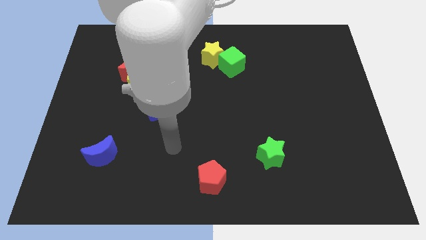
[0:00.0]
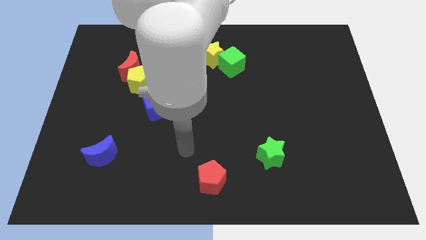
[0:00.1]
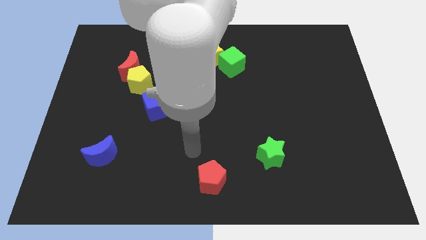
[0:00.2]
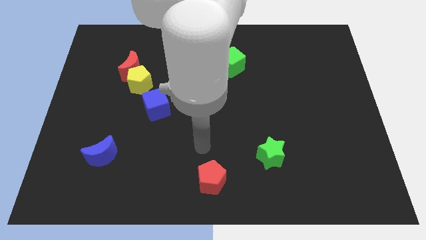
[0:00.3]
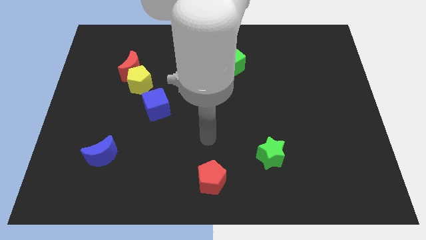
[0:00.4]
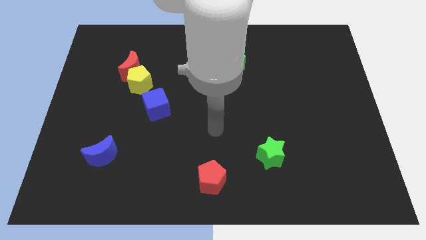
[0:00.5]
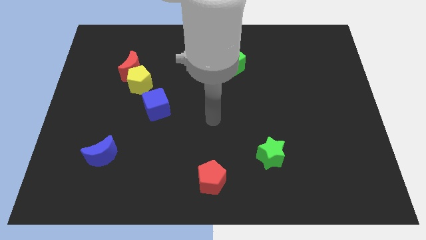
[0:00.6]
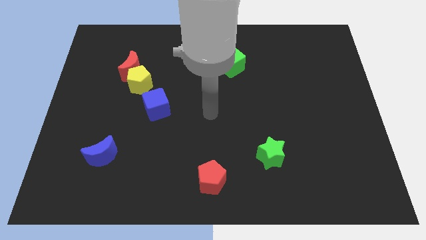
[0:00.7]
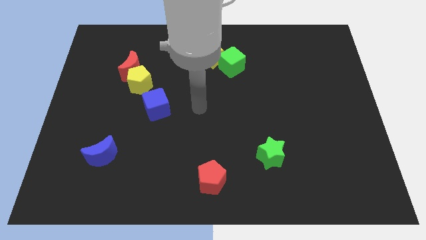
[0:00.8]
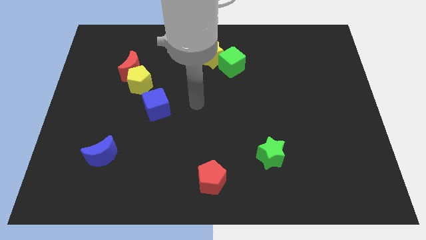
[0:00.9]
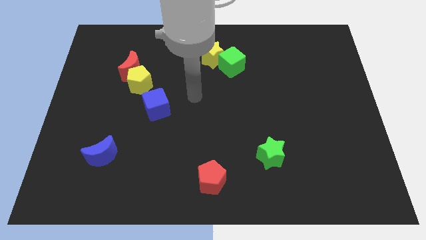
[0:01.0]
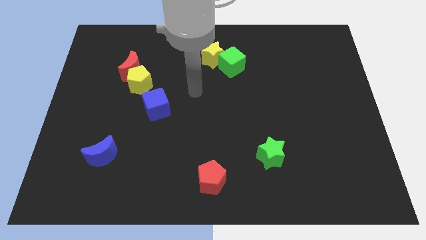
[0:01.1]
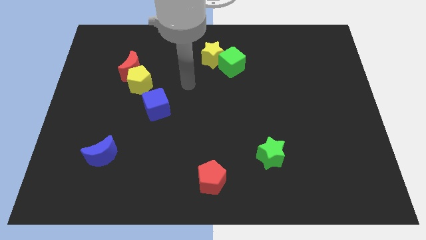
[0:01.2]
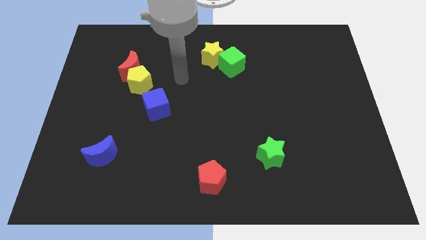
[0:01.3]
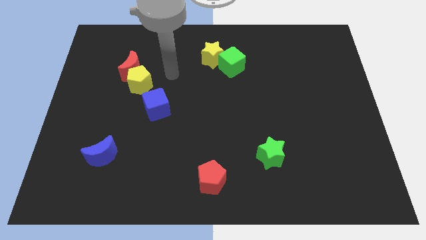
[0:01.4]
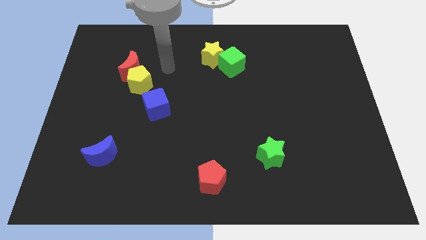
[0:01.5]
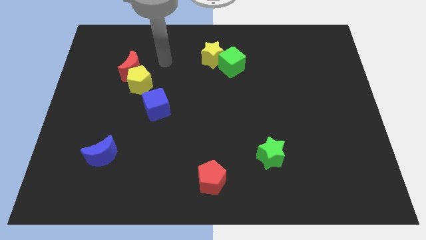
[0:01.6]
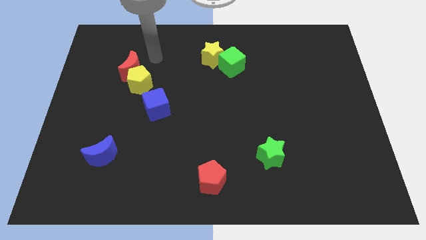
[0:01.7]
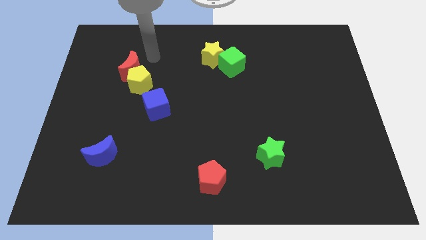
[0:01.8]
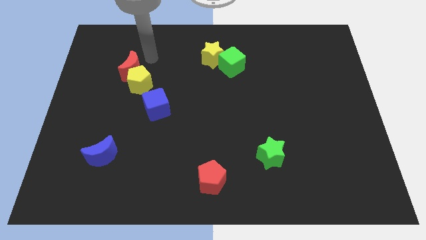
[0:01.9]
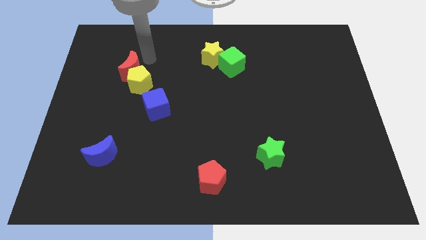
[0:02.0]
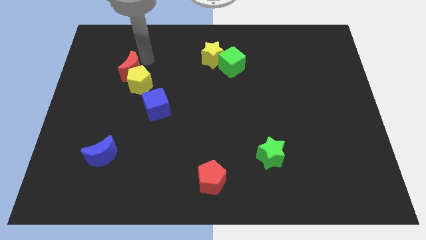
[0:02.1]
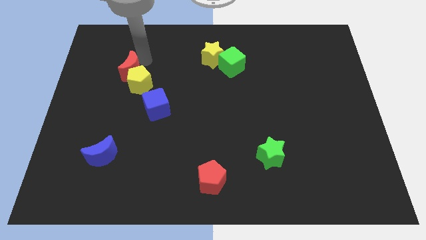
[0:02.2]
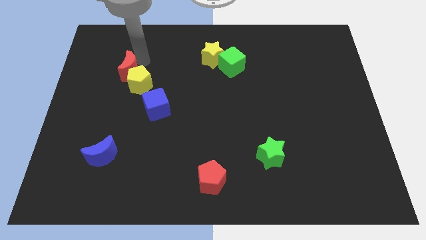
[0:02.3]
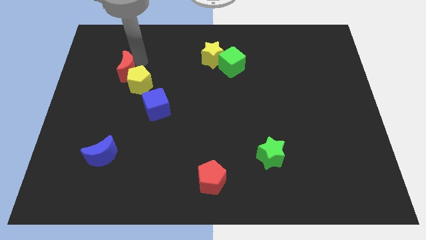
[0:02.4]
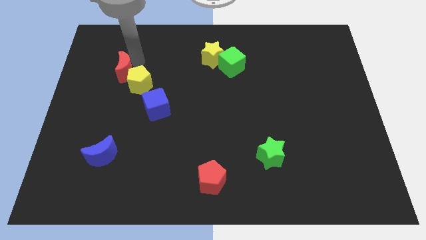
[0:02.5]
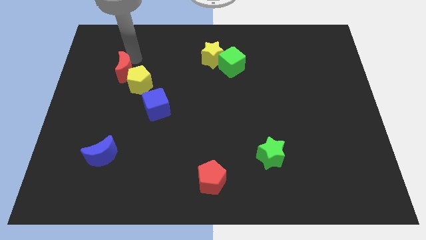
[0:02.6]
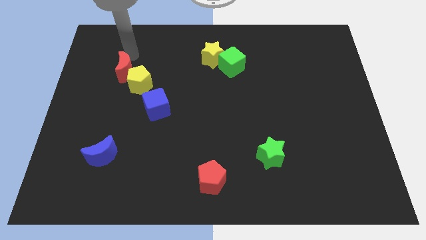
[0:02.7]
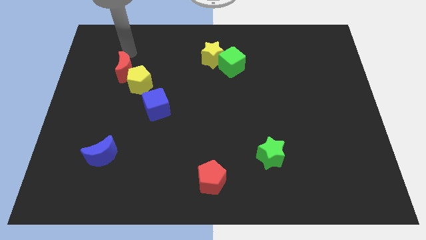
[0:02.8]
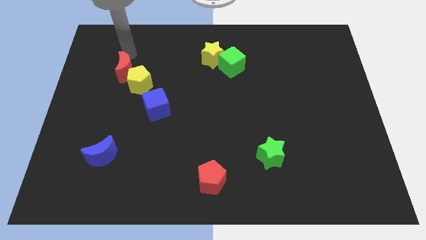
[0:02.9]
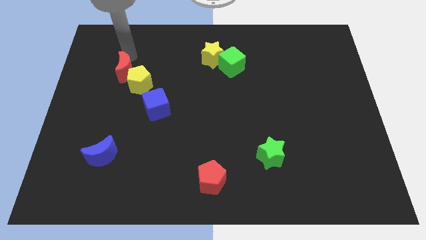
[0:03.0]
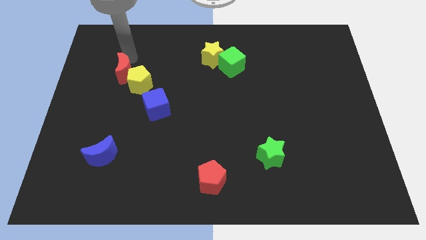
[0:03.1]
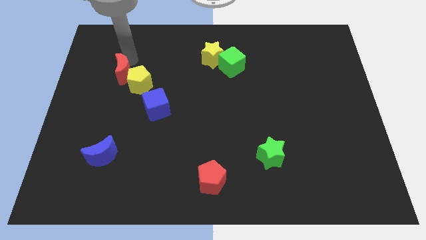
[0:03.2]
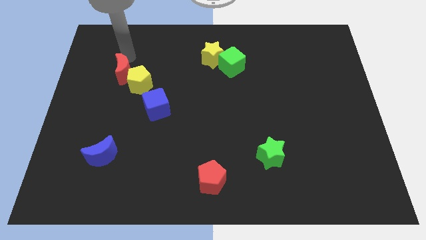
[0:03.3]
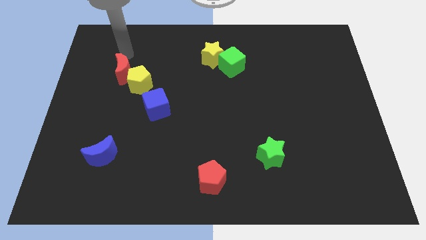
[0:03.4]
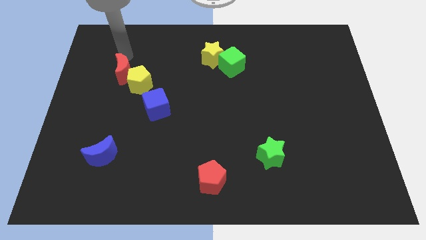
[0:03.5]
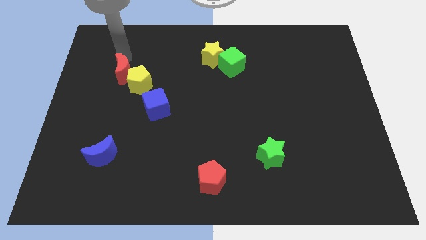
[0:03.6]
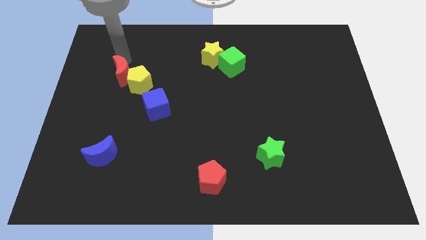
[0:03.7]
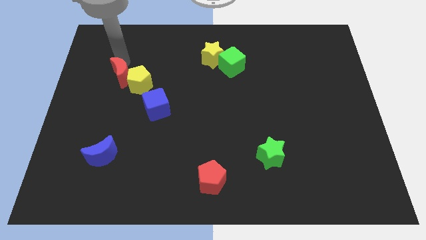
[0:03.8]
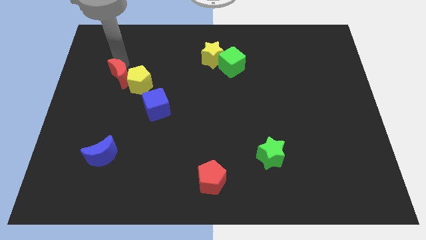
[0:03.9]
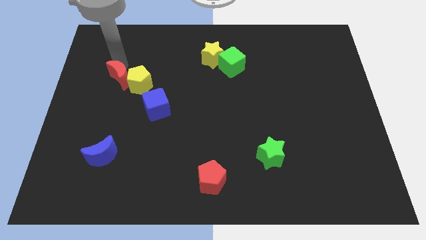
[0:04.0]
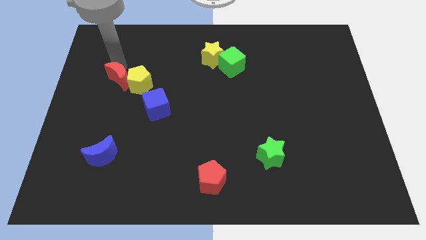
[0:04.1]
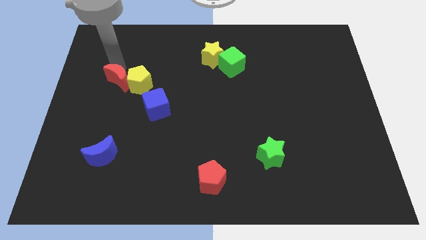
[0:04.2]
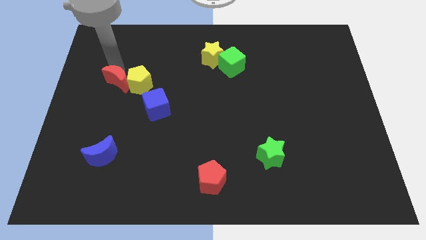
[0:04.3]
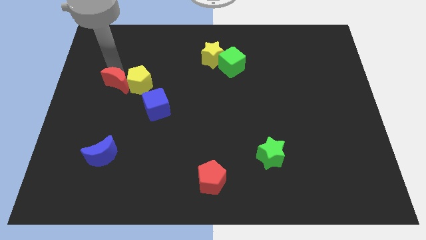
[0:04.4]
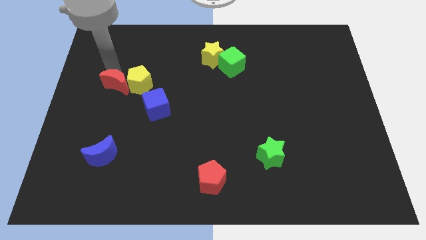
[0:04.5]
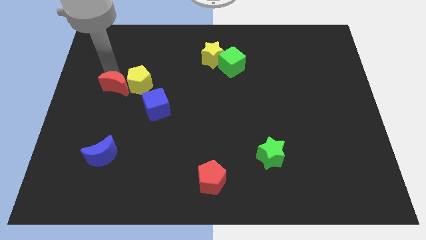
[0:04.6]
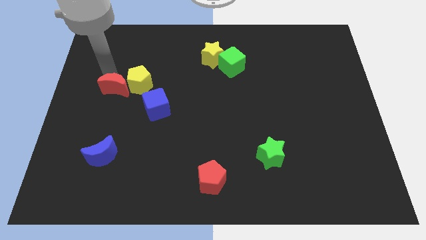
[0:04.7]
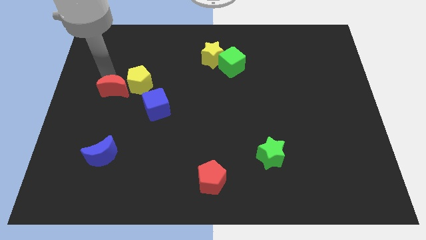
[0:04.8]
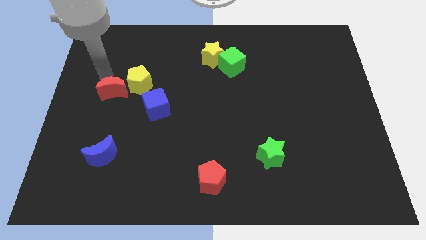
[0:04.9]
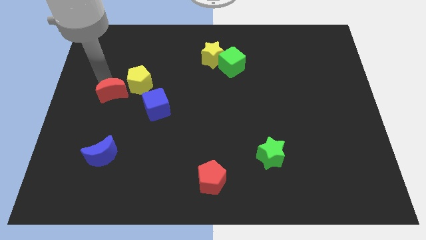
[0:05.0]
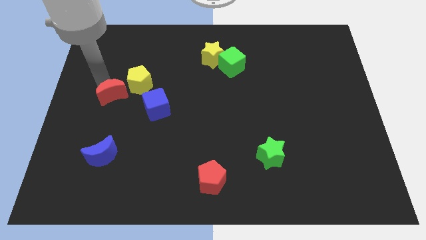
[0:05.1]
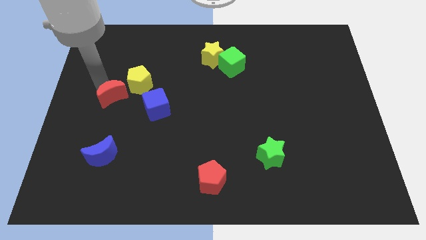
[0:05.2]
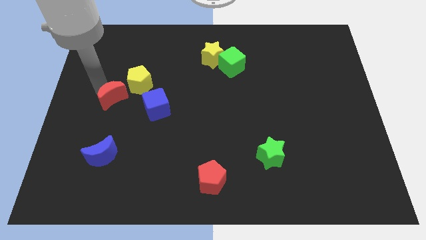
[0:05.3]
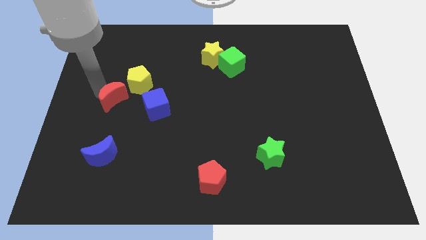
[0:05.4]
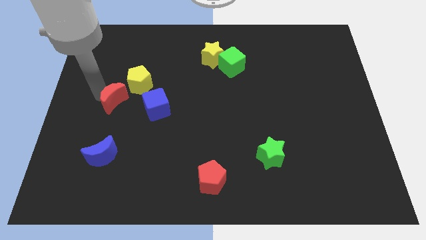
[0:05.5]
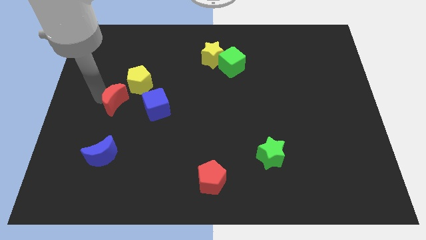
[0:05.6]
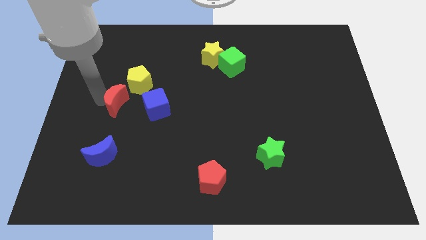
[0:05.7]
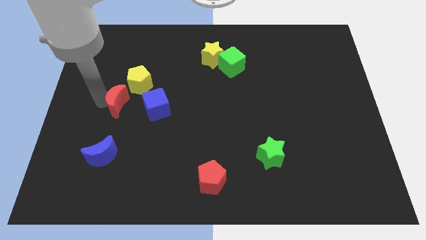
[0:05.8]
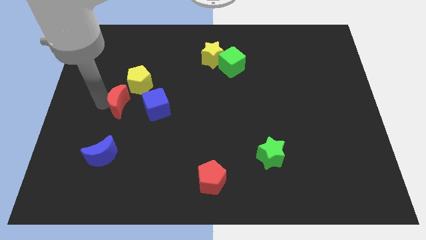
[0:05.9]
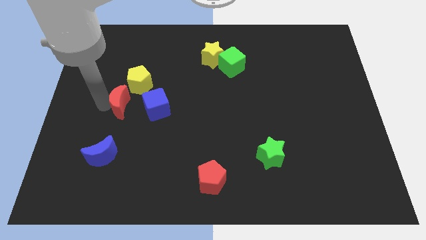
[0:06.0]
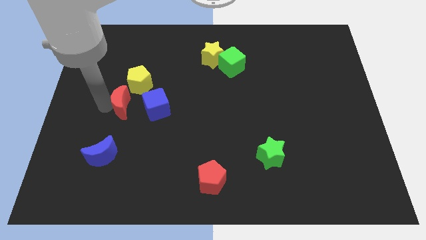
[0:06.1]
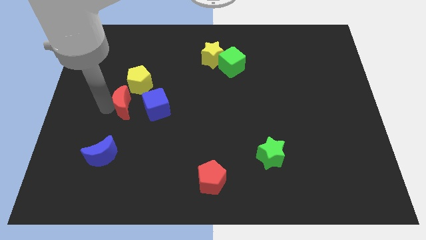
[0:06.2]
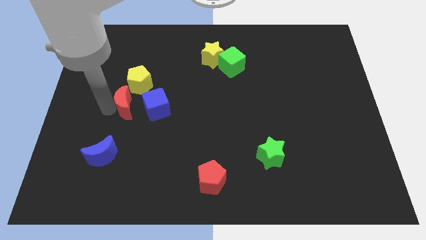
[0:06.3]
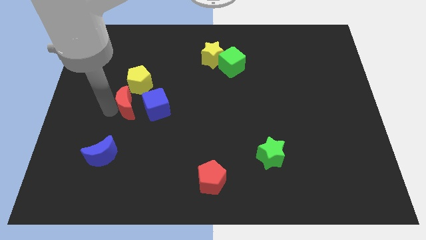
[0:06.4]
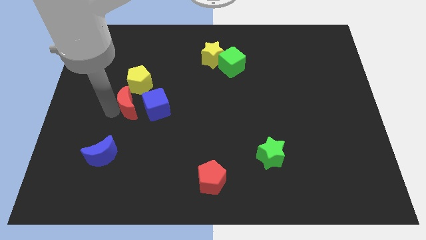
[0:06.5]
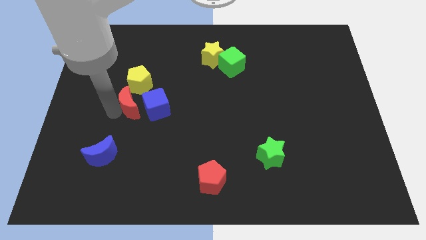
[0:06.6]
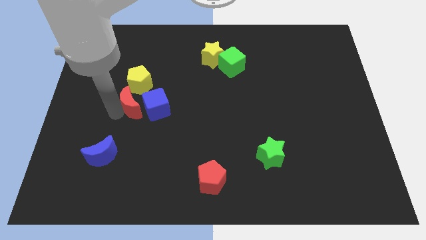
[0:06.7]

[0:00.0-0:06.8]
slide the red moon next to the blue cube
